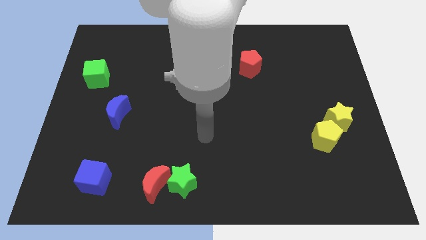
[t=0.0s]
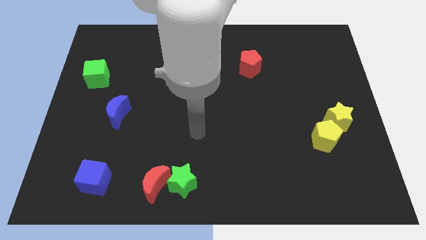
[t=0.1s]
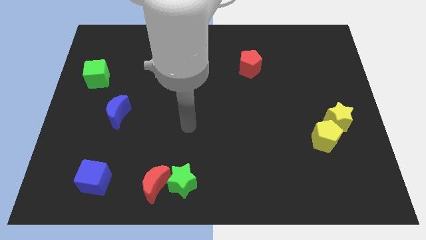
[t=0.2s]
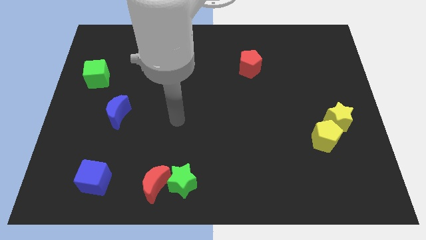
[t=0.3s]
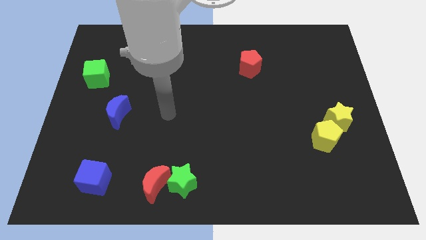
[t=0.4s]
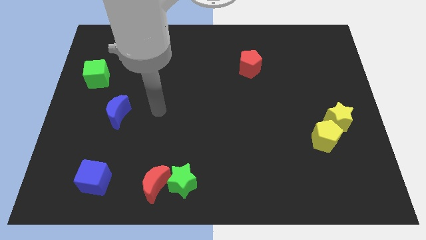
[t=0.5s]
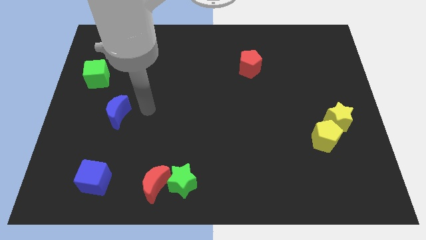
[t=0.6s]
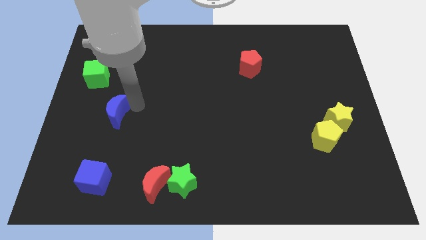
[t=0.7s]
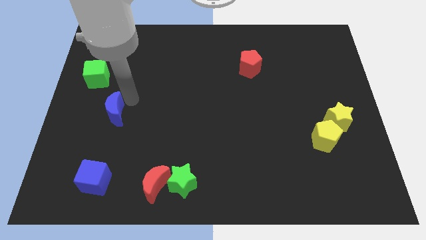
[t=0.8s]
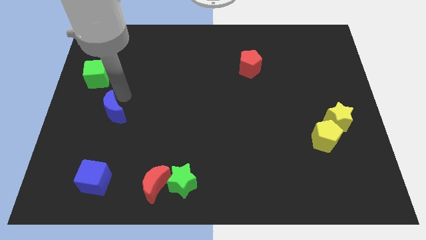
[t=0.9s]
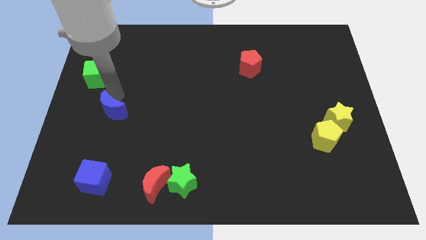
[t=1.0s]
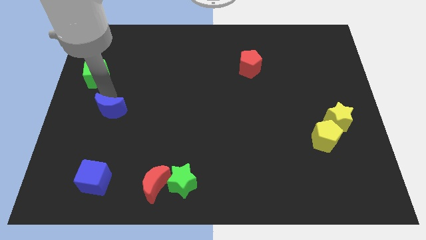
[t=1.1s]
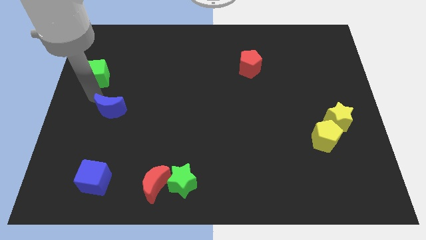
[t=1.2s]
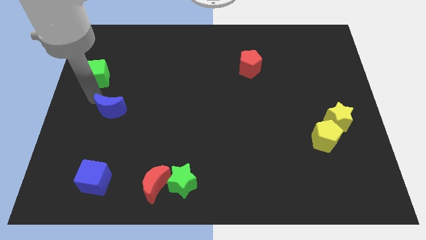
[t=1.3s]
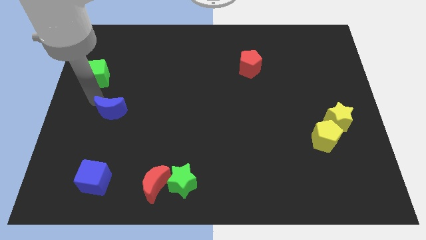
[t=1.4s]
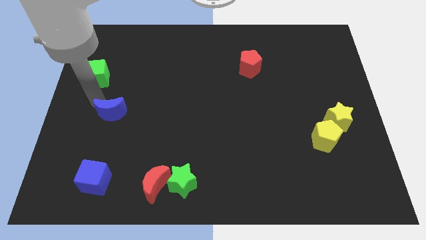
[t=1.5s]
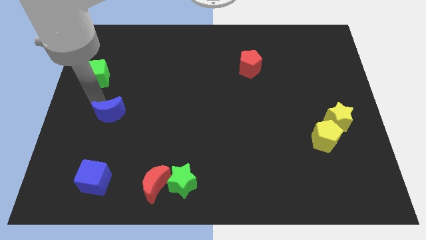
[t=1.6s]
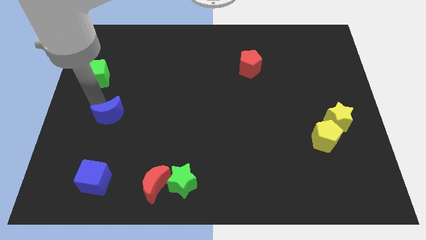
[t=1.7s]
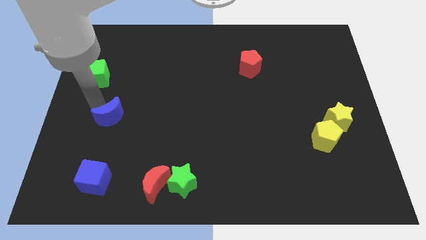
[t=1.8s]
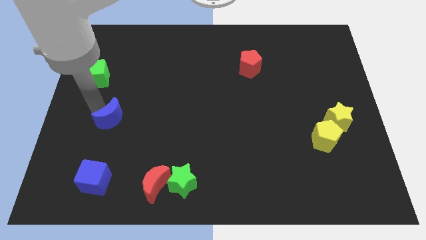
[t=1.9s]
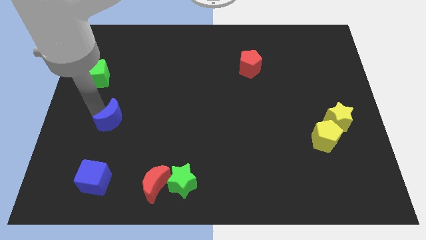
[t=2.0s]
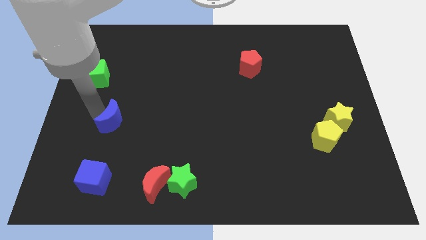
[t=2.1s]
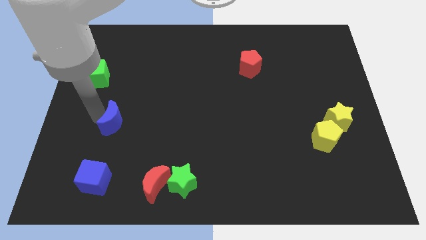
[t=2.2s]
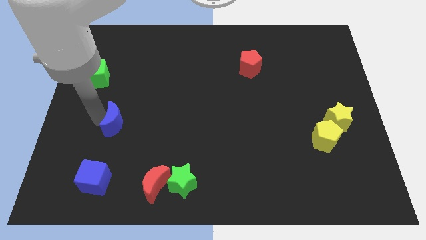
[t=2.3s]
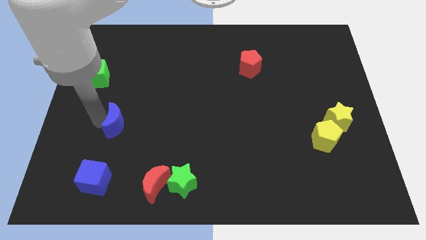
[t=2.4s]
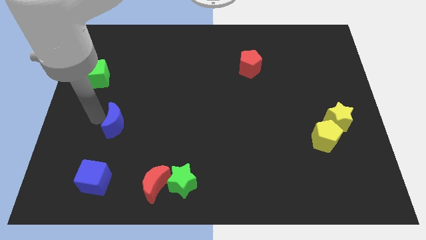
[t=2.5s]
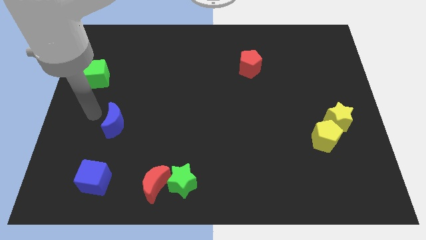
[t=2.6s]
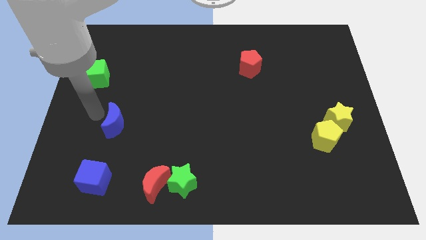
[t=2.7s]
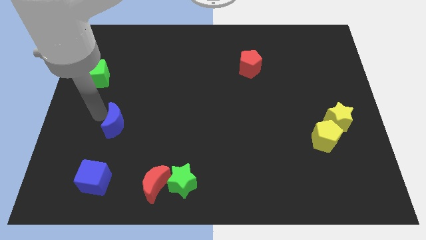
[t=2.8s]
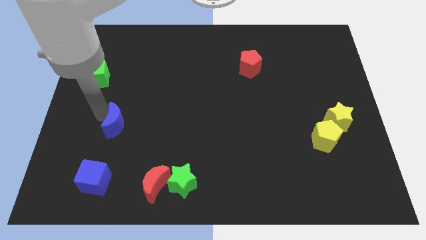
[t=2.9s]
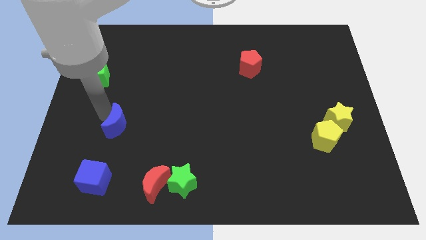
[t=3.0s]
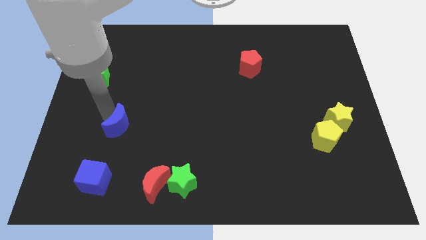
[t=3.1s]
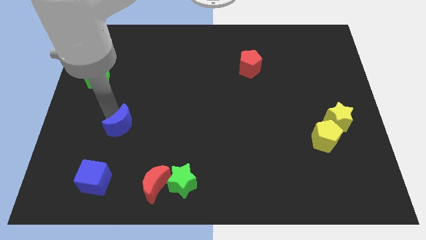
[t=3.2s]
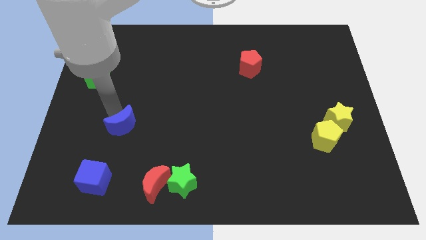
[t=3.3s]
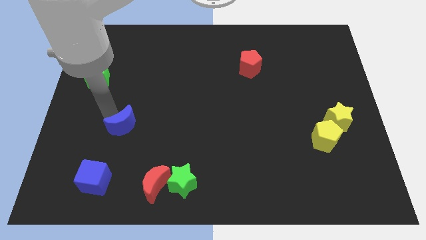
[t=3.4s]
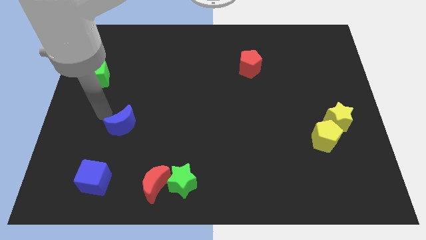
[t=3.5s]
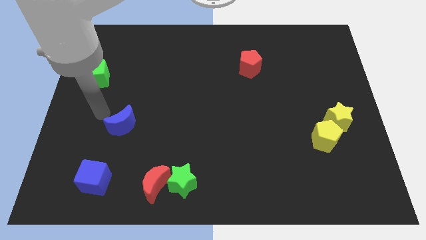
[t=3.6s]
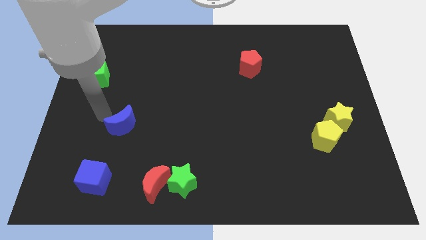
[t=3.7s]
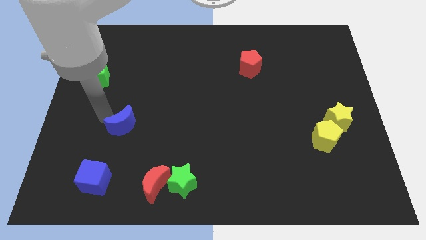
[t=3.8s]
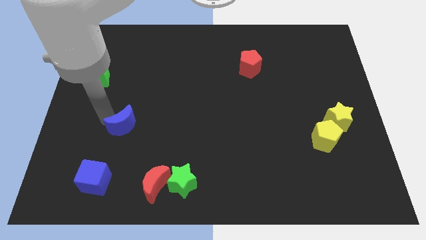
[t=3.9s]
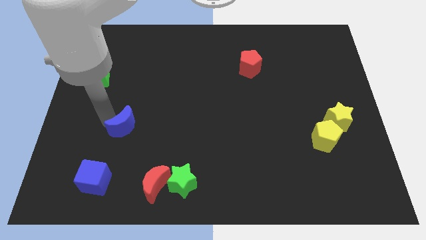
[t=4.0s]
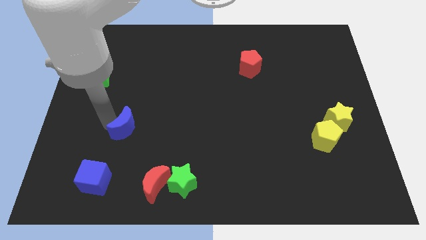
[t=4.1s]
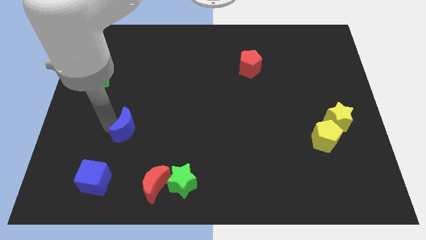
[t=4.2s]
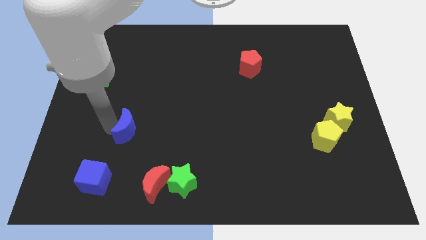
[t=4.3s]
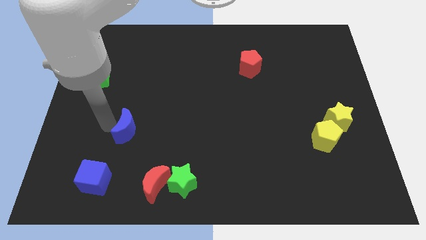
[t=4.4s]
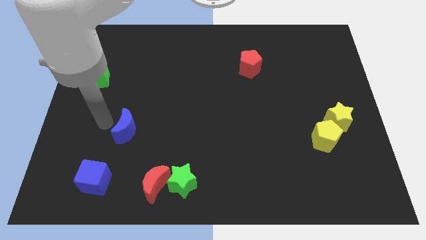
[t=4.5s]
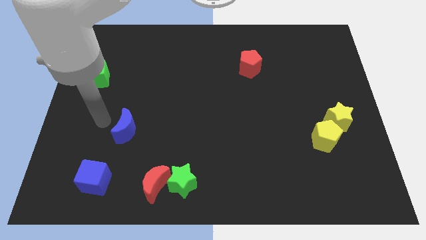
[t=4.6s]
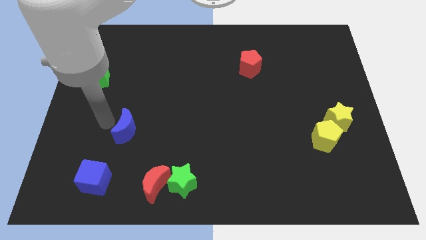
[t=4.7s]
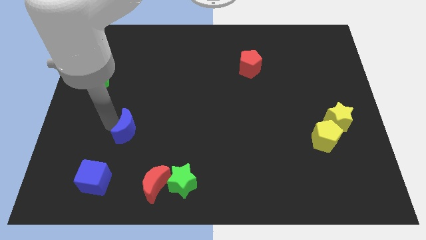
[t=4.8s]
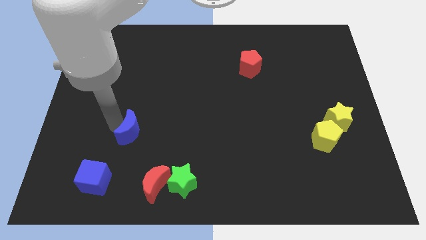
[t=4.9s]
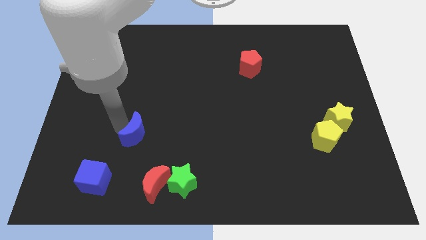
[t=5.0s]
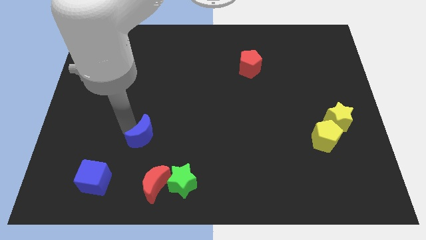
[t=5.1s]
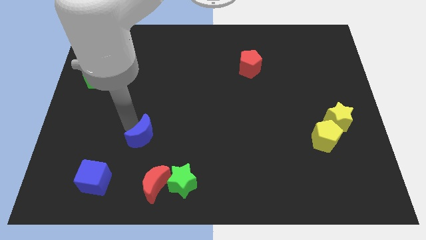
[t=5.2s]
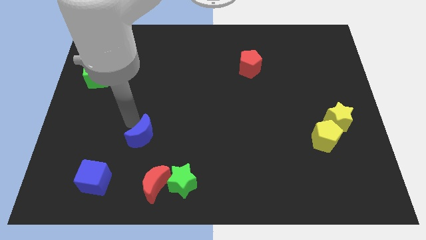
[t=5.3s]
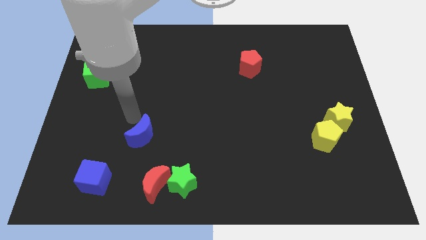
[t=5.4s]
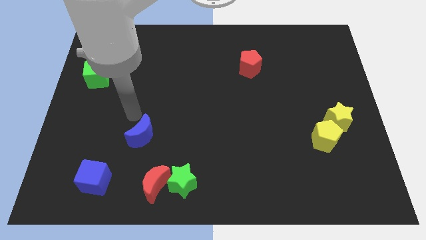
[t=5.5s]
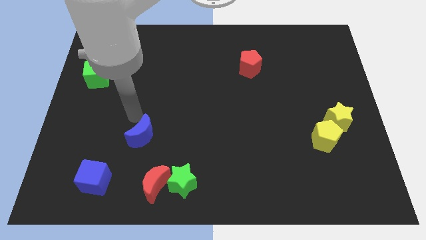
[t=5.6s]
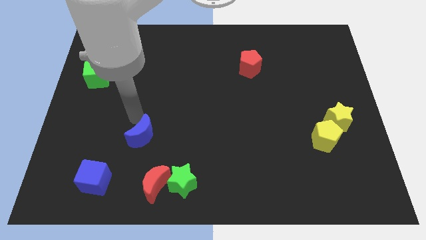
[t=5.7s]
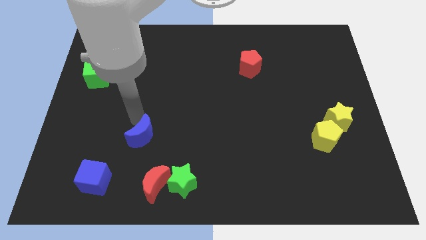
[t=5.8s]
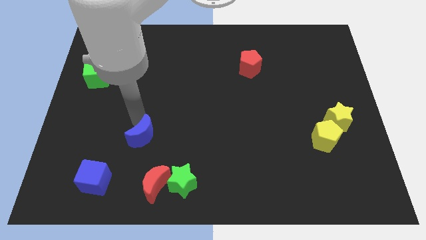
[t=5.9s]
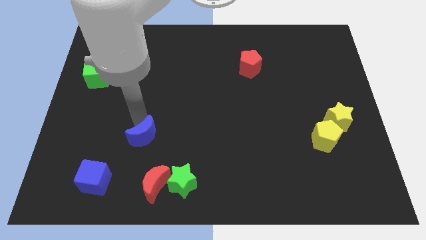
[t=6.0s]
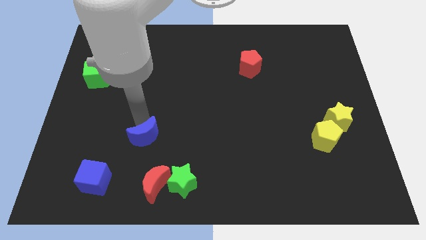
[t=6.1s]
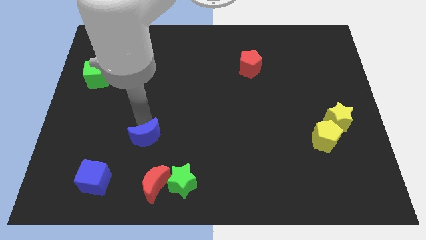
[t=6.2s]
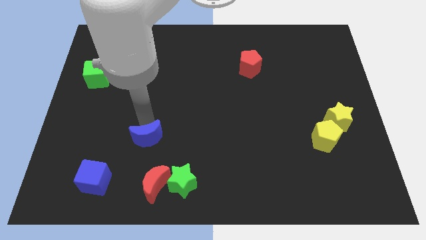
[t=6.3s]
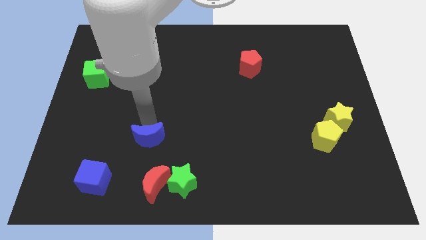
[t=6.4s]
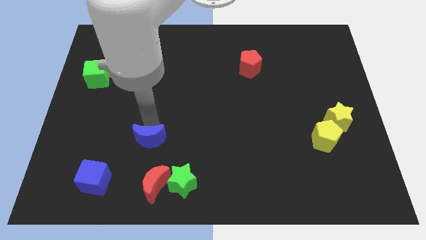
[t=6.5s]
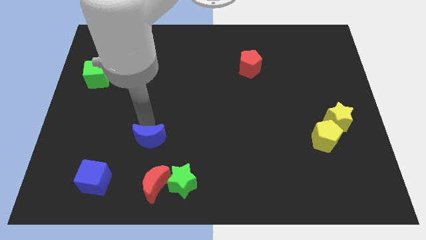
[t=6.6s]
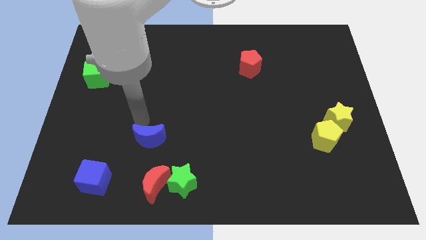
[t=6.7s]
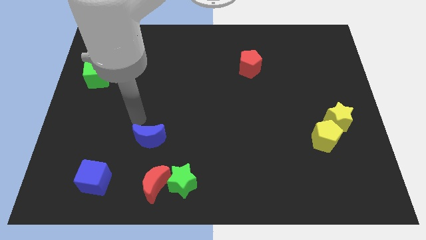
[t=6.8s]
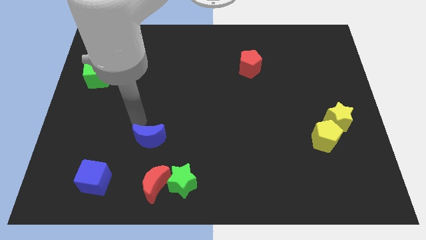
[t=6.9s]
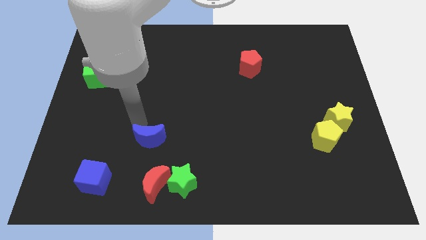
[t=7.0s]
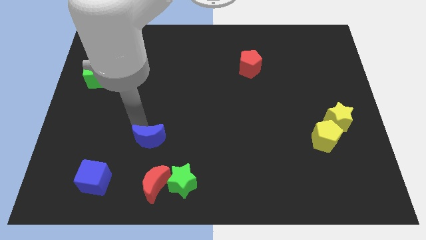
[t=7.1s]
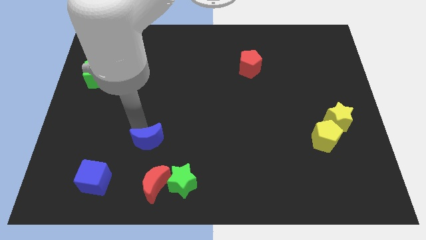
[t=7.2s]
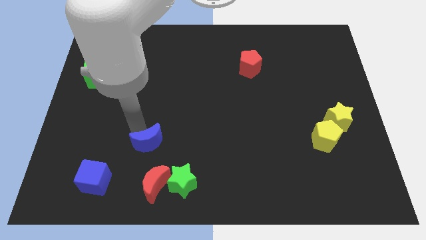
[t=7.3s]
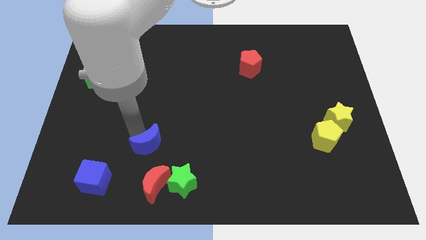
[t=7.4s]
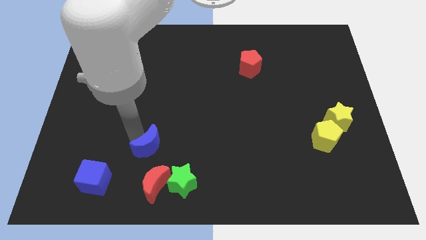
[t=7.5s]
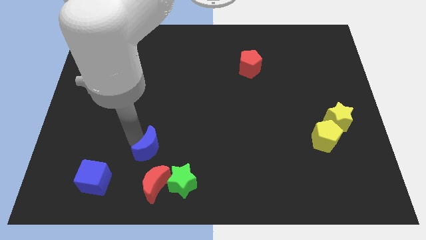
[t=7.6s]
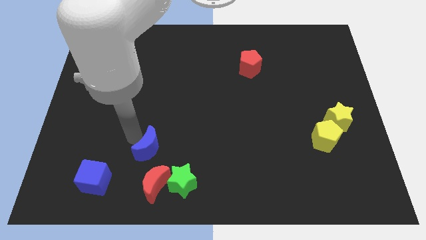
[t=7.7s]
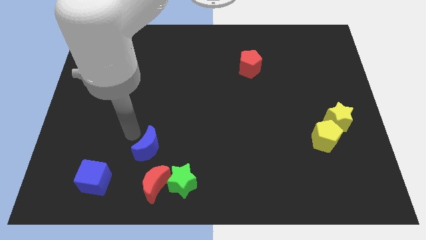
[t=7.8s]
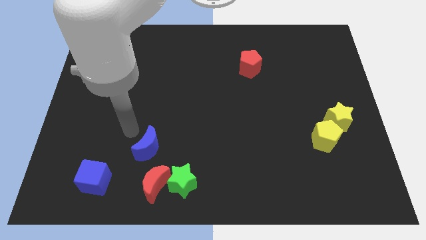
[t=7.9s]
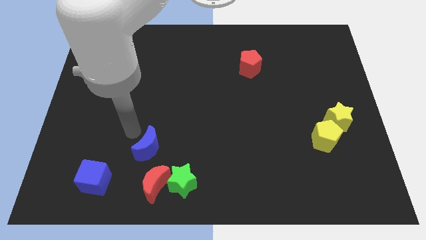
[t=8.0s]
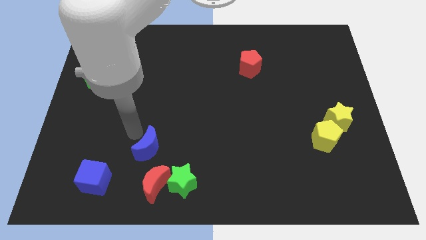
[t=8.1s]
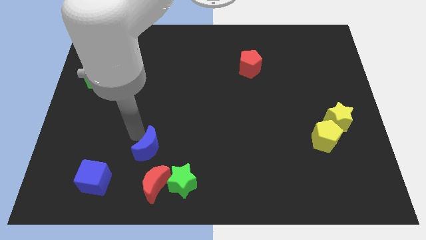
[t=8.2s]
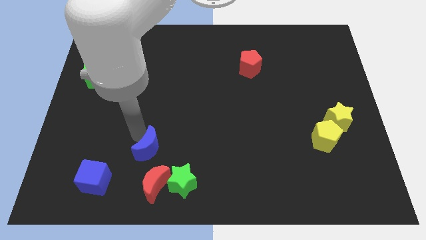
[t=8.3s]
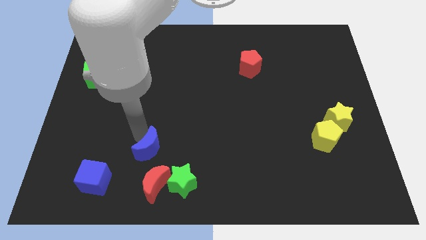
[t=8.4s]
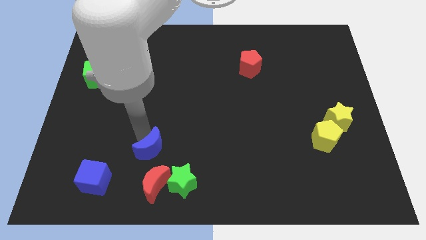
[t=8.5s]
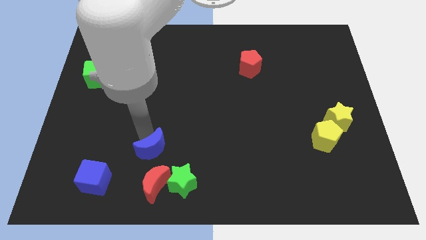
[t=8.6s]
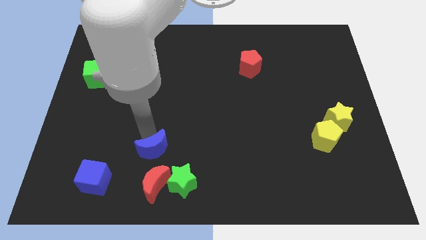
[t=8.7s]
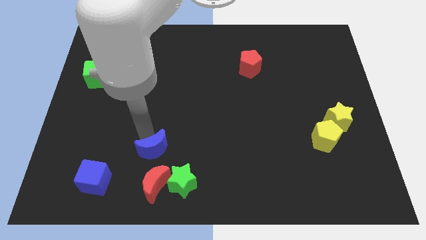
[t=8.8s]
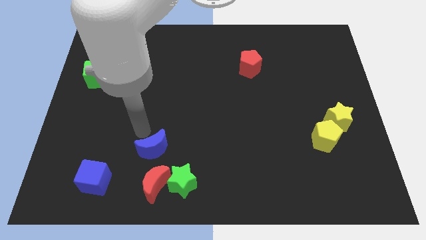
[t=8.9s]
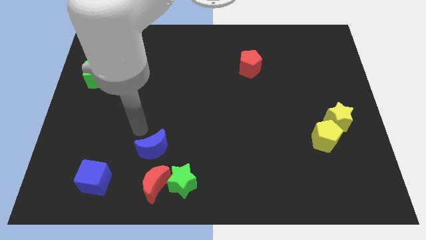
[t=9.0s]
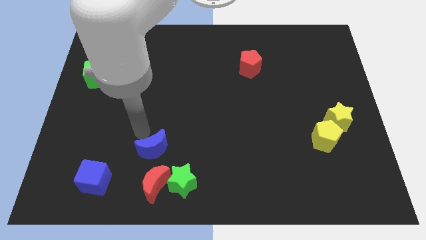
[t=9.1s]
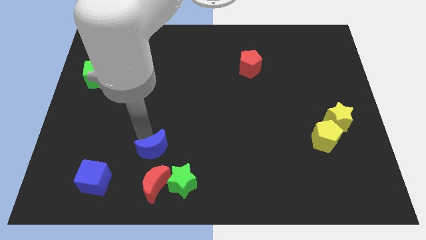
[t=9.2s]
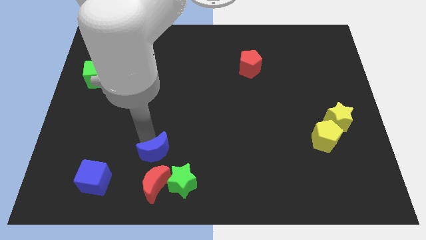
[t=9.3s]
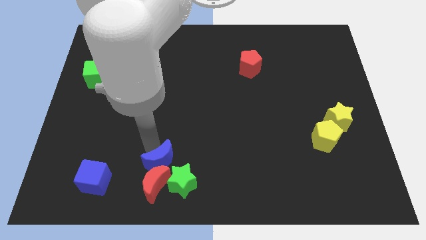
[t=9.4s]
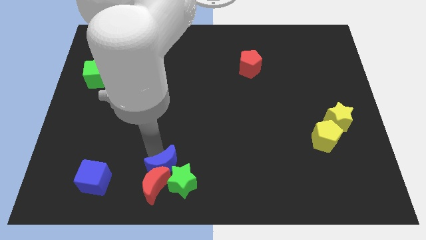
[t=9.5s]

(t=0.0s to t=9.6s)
move the blue moon close to the green star
